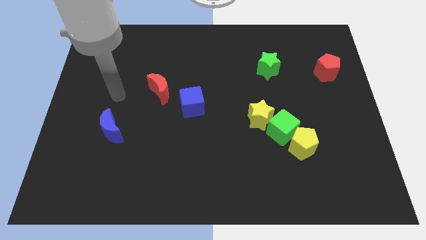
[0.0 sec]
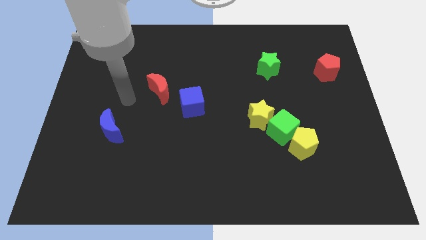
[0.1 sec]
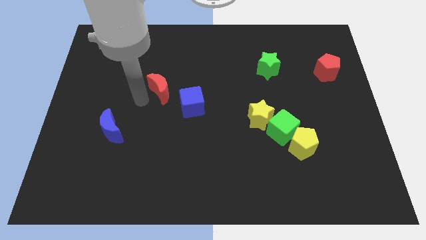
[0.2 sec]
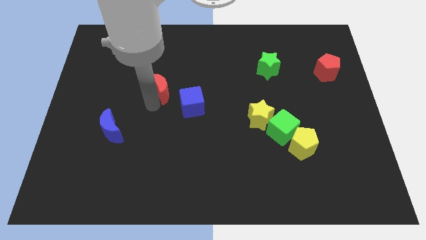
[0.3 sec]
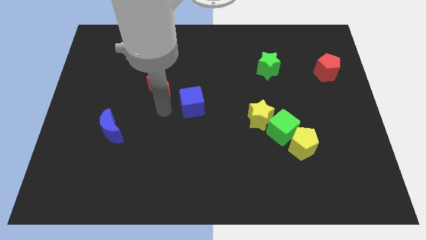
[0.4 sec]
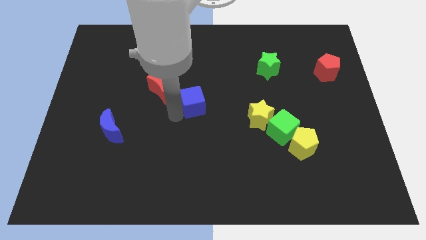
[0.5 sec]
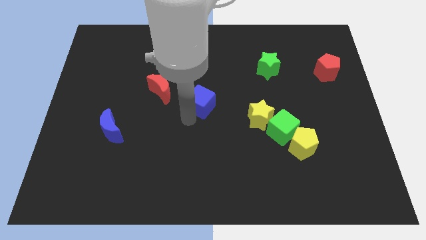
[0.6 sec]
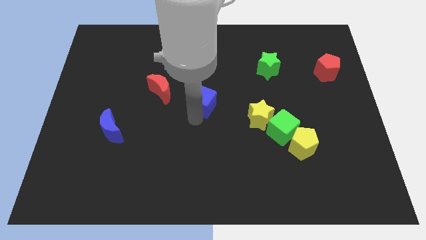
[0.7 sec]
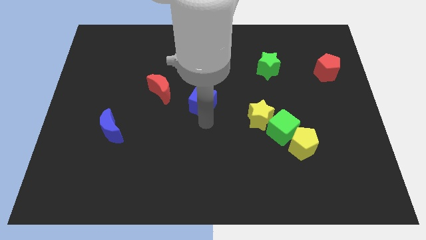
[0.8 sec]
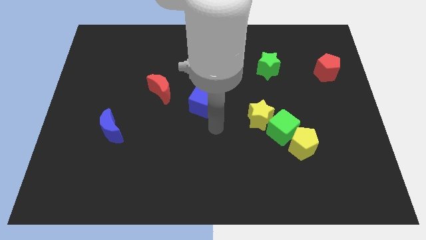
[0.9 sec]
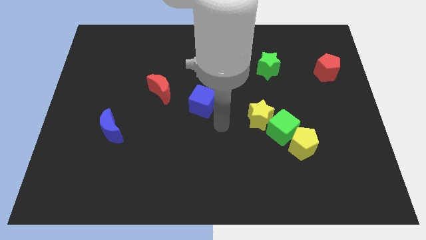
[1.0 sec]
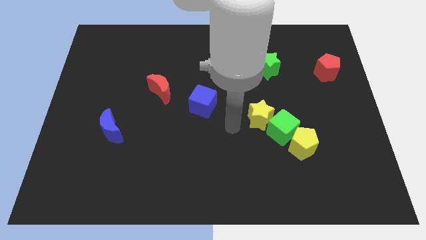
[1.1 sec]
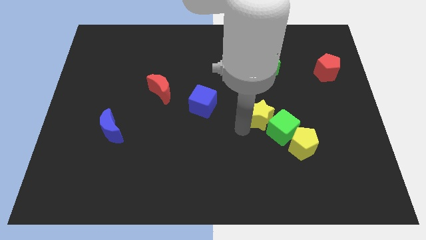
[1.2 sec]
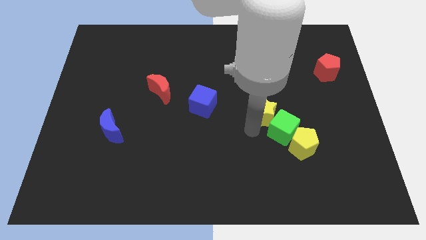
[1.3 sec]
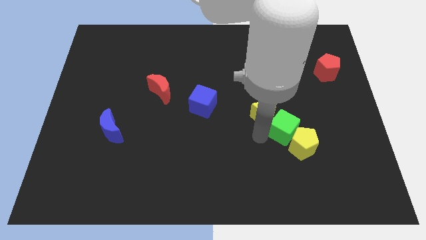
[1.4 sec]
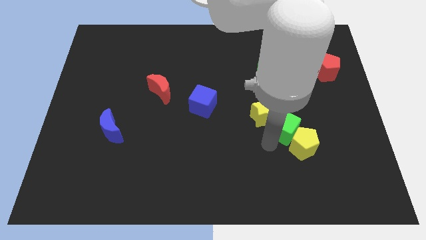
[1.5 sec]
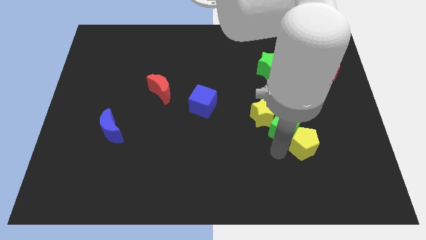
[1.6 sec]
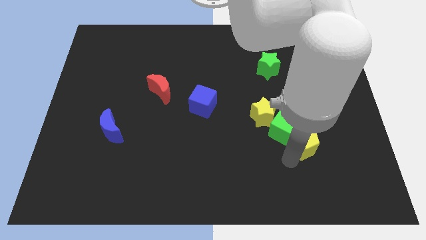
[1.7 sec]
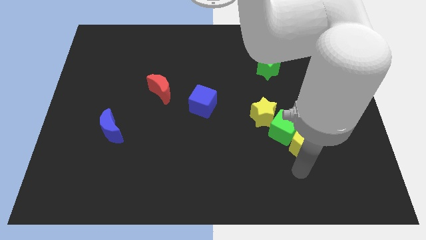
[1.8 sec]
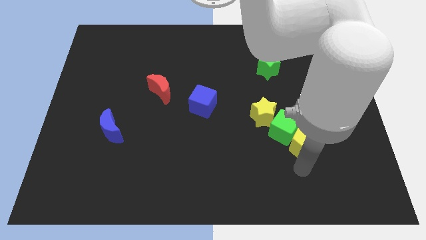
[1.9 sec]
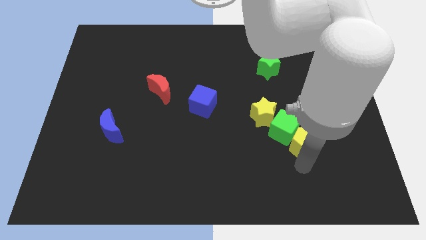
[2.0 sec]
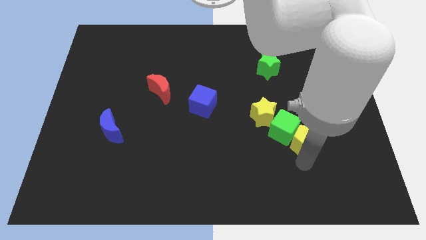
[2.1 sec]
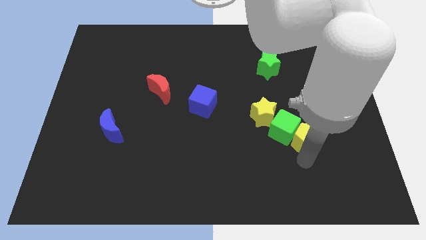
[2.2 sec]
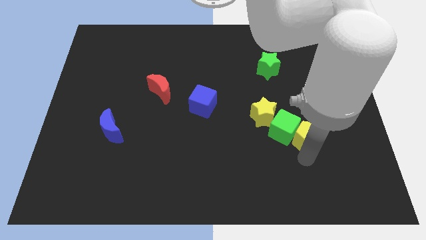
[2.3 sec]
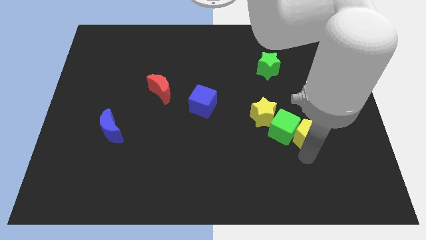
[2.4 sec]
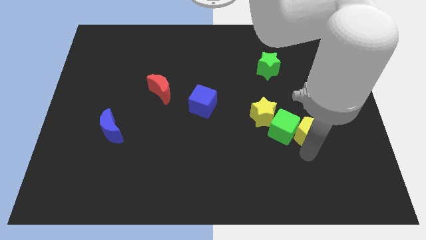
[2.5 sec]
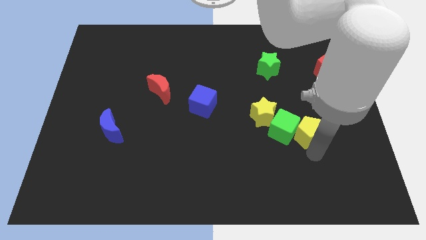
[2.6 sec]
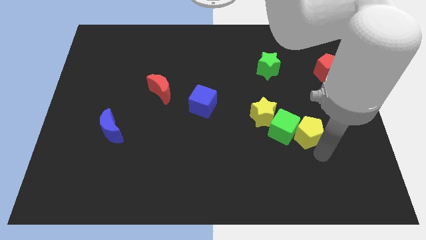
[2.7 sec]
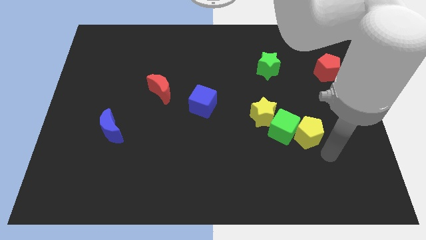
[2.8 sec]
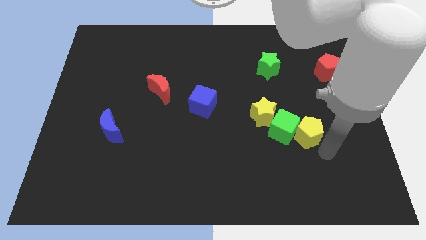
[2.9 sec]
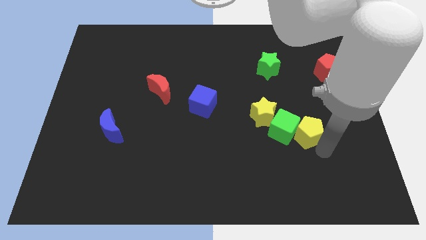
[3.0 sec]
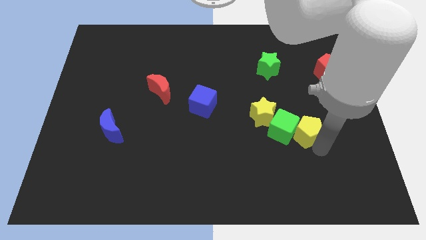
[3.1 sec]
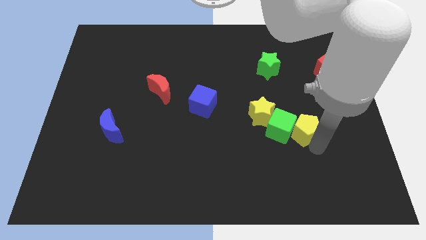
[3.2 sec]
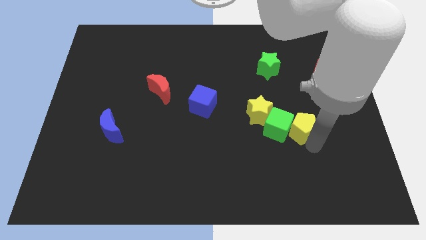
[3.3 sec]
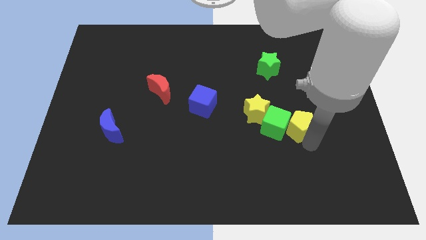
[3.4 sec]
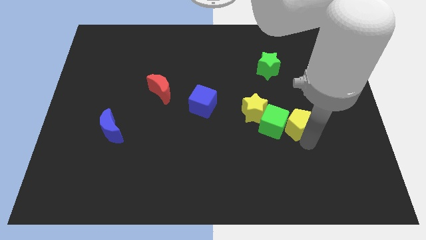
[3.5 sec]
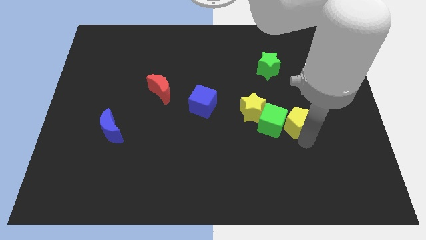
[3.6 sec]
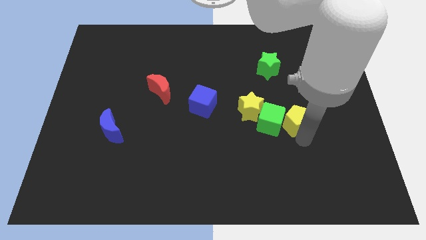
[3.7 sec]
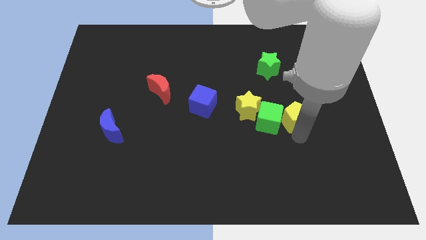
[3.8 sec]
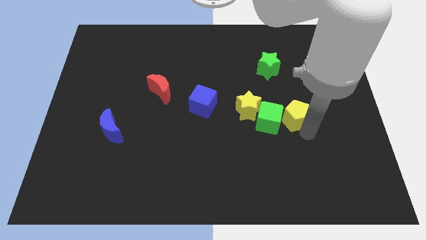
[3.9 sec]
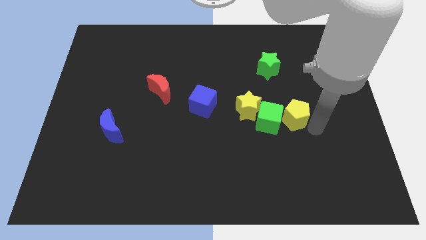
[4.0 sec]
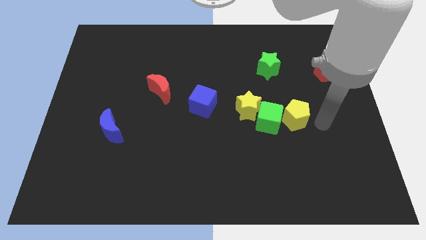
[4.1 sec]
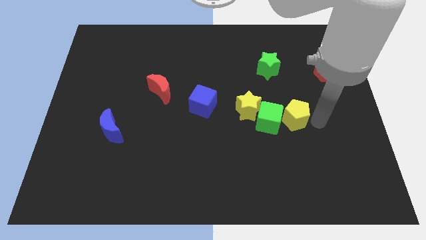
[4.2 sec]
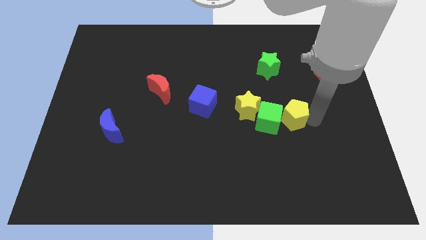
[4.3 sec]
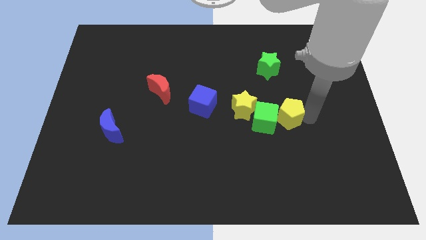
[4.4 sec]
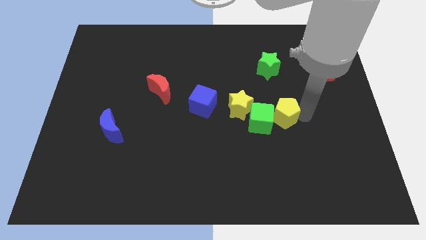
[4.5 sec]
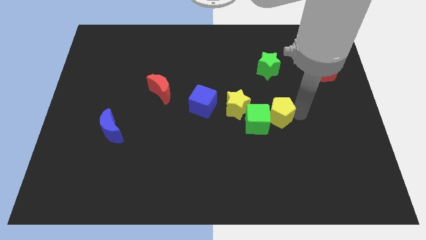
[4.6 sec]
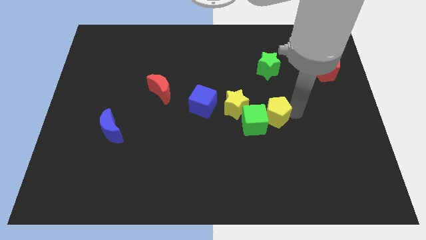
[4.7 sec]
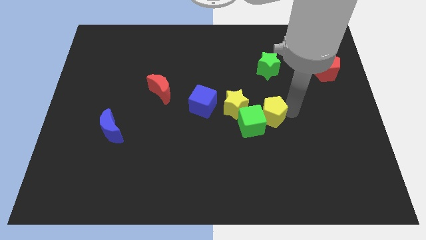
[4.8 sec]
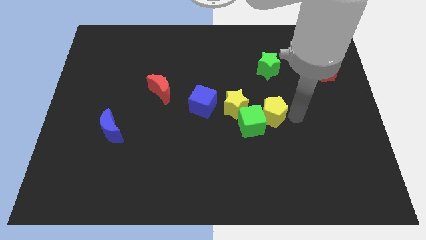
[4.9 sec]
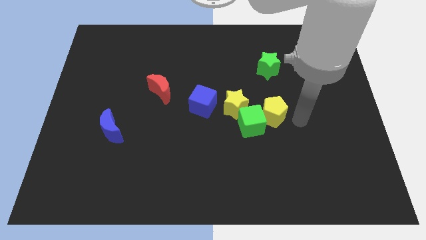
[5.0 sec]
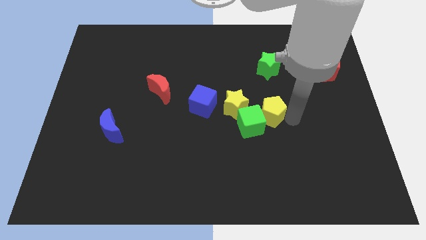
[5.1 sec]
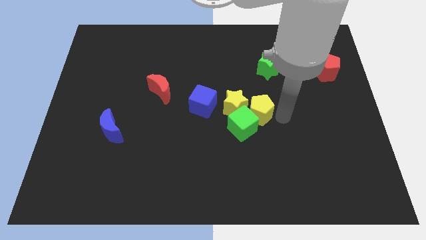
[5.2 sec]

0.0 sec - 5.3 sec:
slide the yellow pentagon to the yellow star

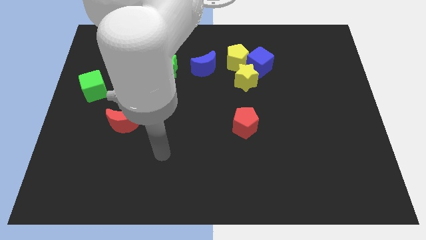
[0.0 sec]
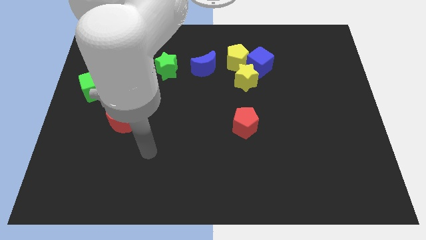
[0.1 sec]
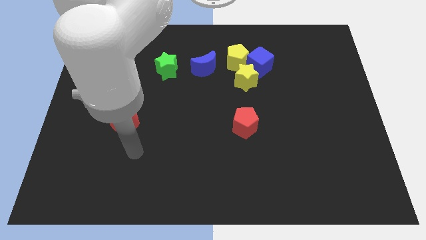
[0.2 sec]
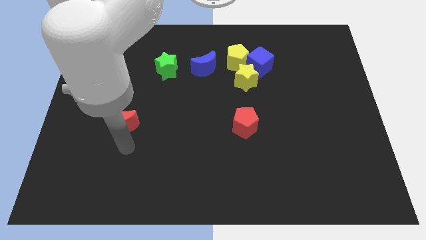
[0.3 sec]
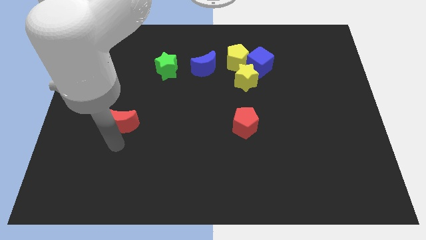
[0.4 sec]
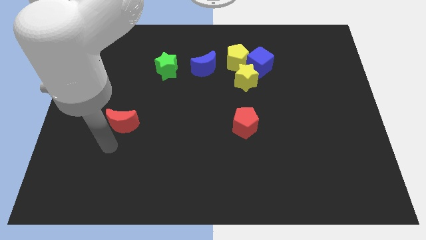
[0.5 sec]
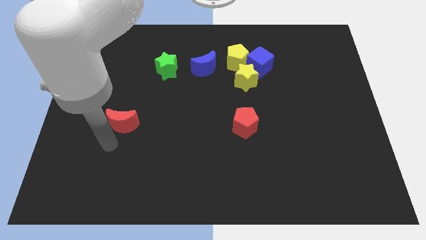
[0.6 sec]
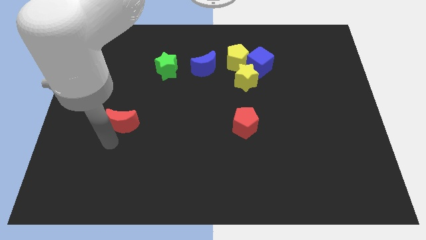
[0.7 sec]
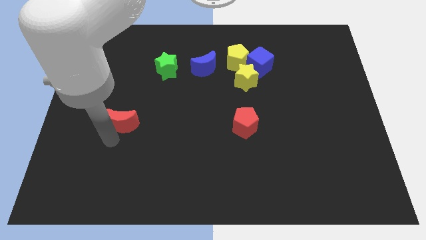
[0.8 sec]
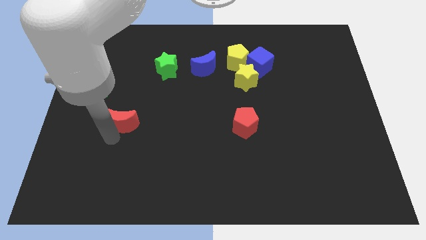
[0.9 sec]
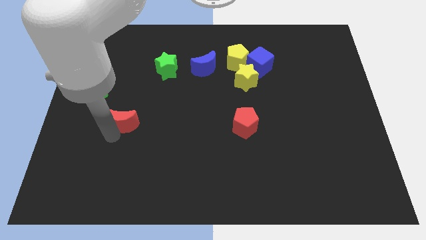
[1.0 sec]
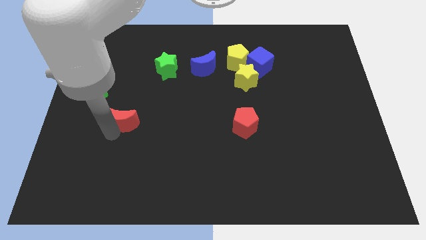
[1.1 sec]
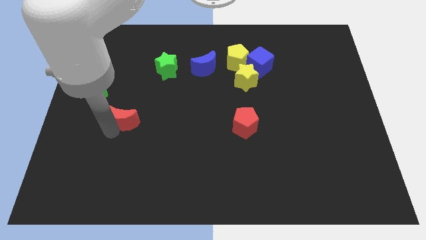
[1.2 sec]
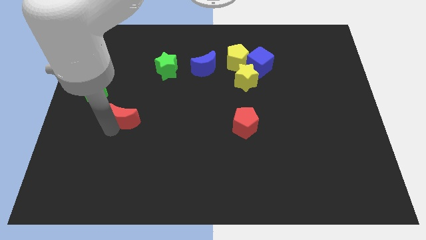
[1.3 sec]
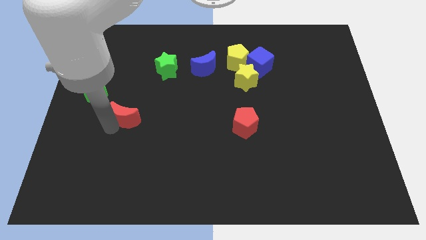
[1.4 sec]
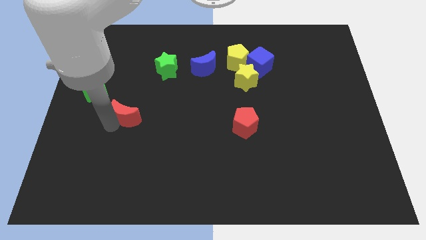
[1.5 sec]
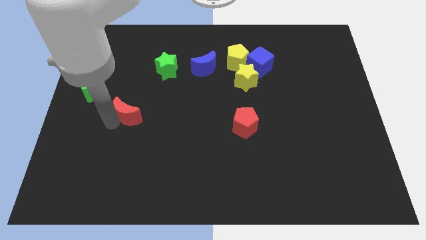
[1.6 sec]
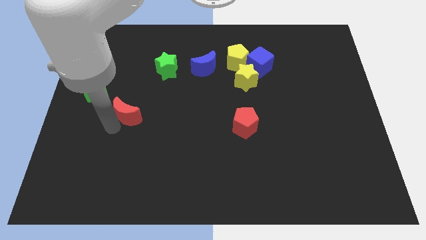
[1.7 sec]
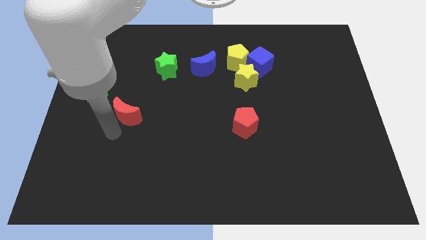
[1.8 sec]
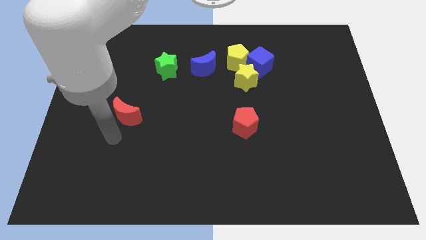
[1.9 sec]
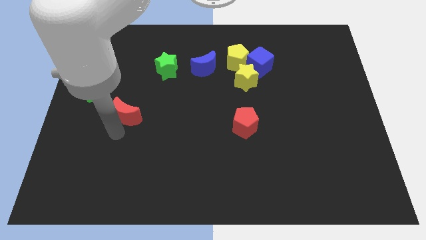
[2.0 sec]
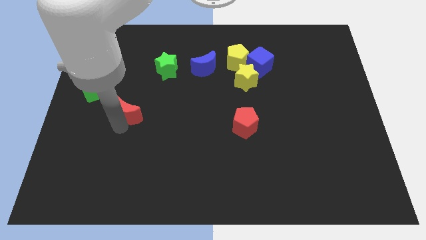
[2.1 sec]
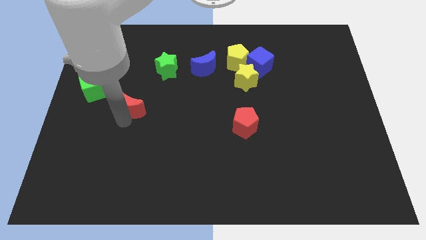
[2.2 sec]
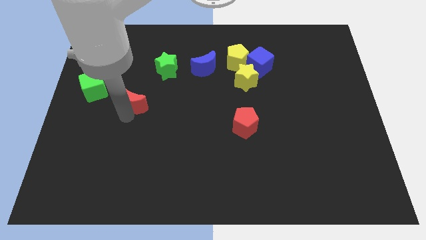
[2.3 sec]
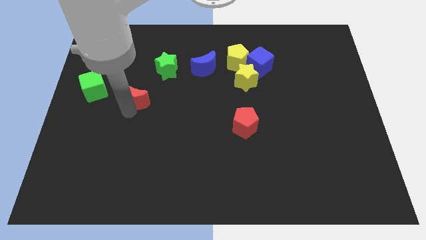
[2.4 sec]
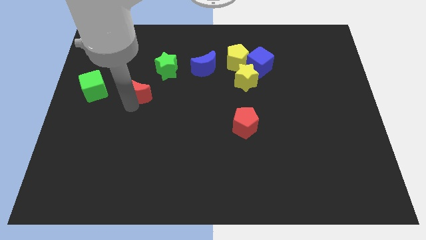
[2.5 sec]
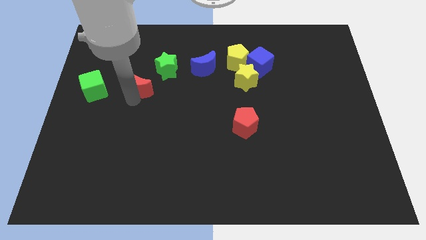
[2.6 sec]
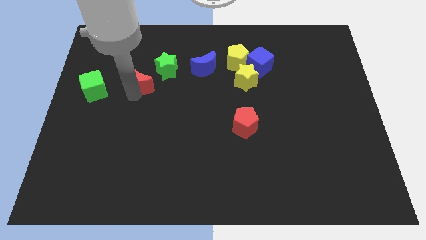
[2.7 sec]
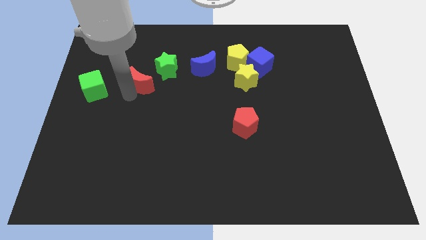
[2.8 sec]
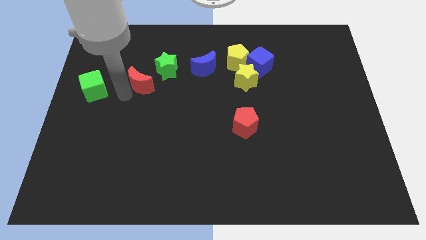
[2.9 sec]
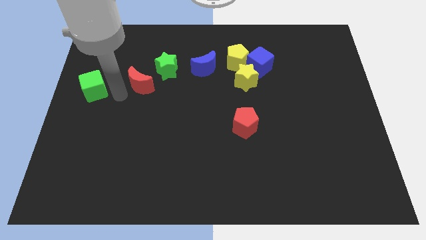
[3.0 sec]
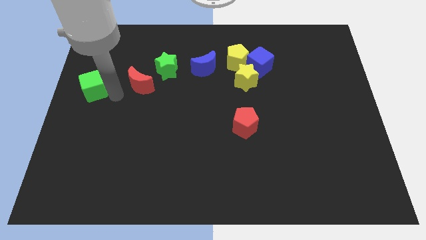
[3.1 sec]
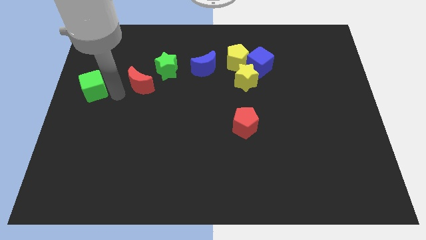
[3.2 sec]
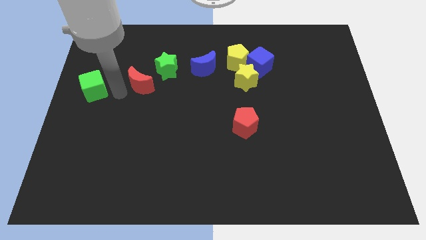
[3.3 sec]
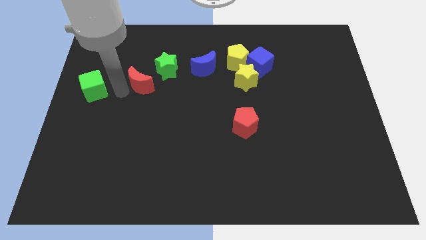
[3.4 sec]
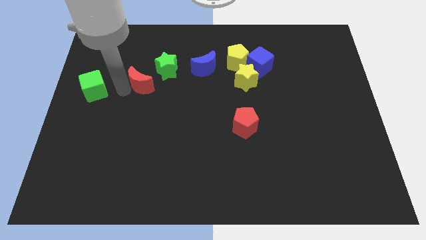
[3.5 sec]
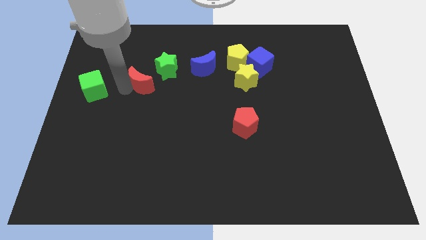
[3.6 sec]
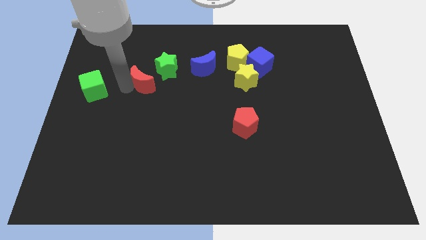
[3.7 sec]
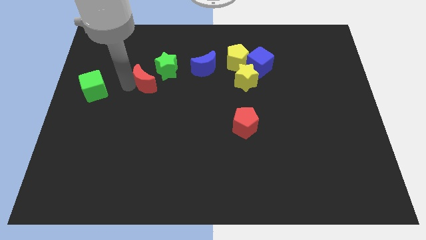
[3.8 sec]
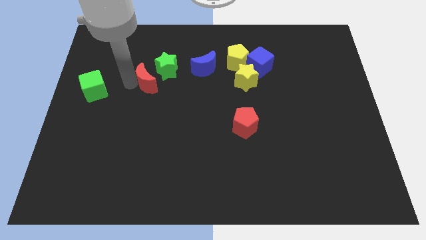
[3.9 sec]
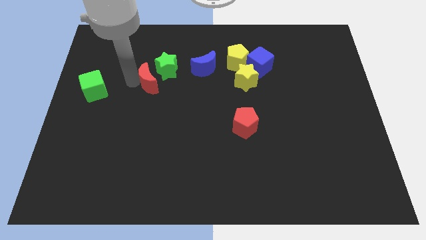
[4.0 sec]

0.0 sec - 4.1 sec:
slide the red moon close to the green star
